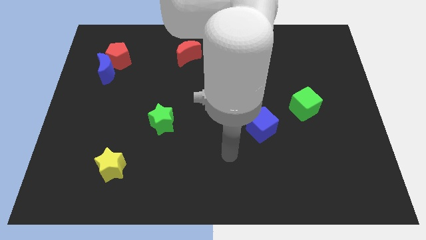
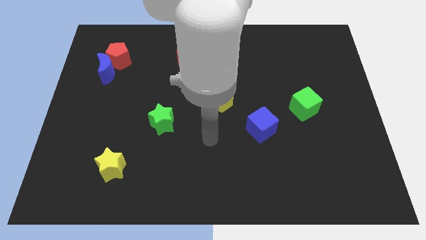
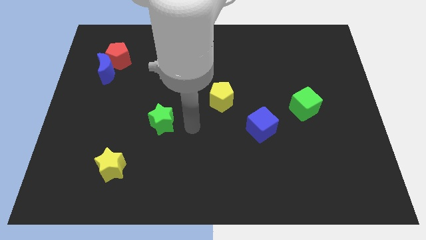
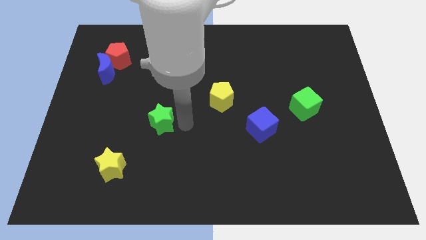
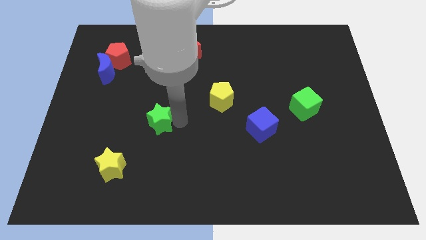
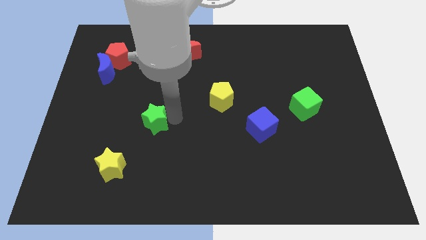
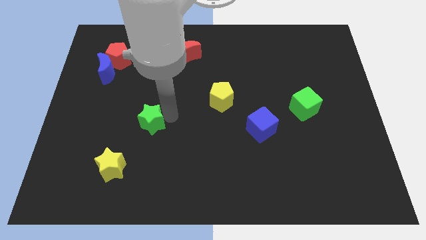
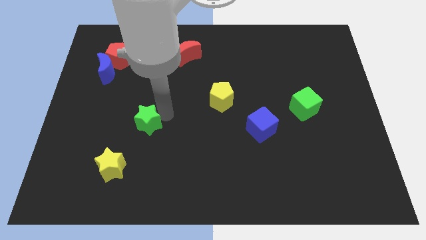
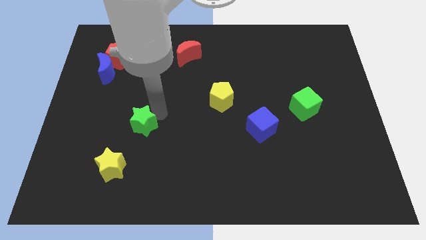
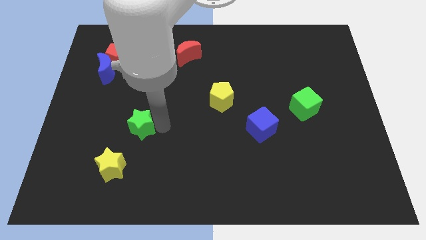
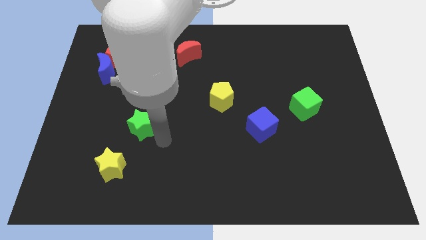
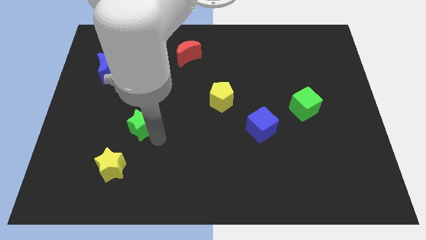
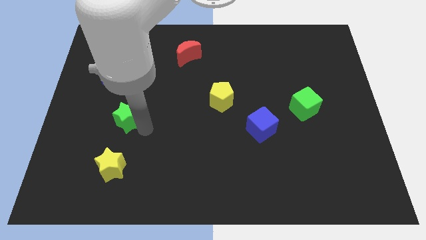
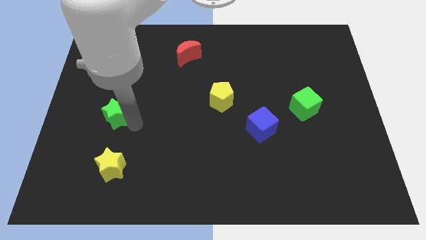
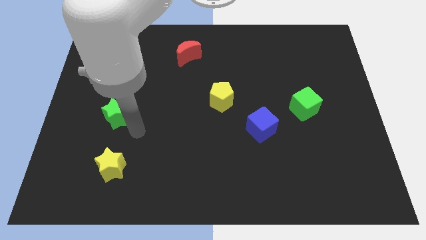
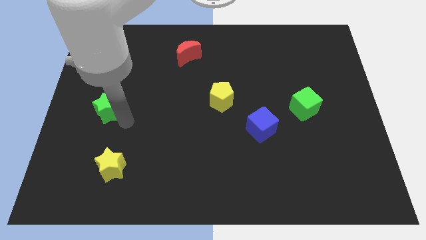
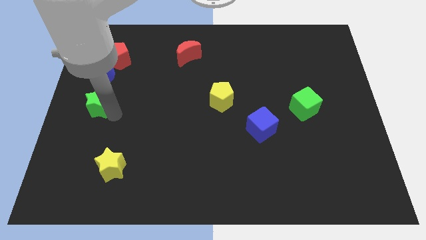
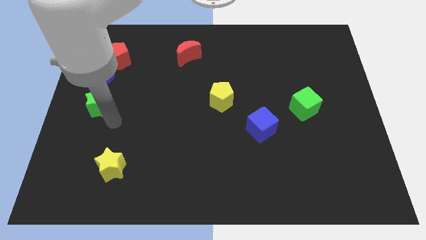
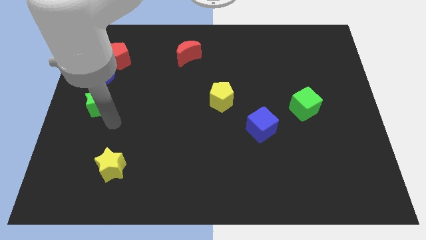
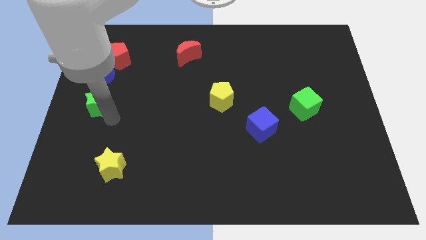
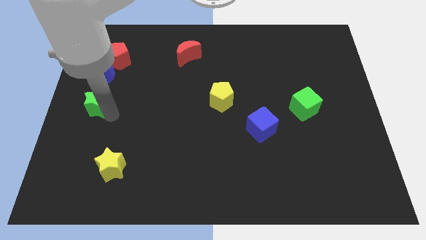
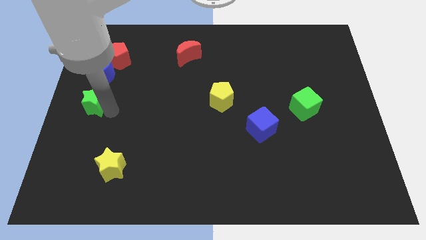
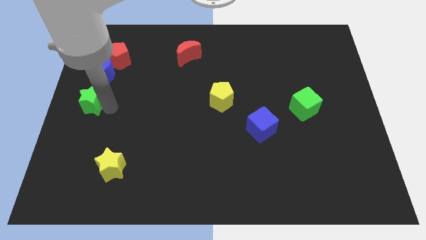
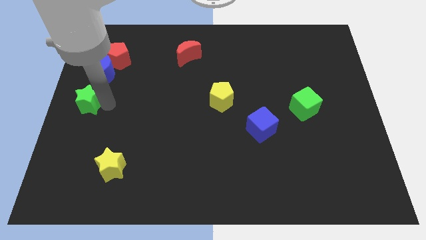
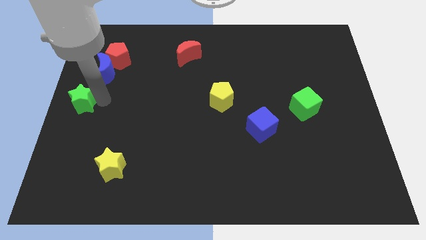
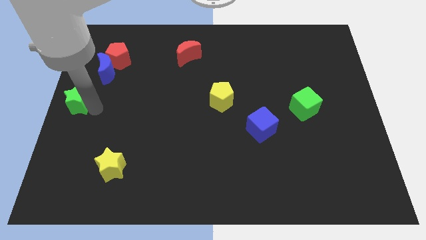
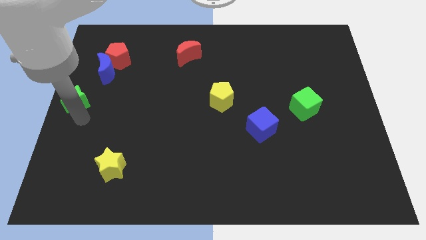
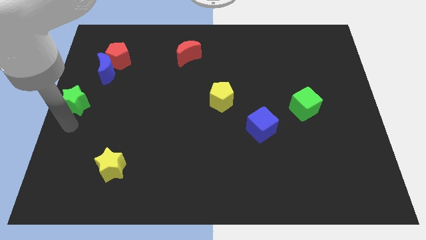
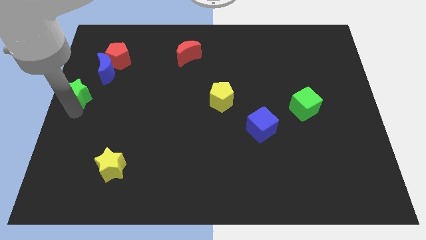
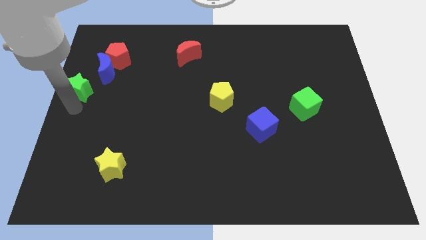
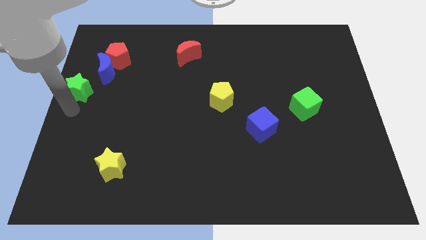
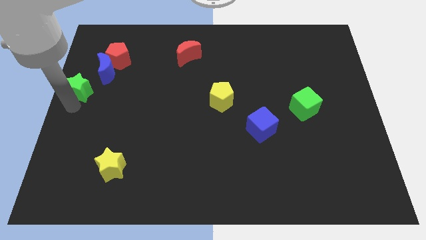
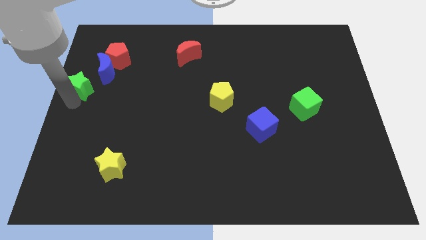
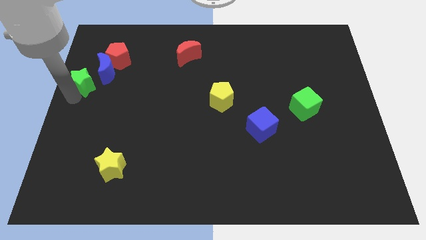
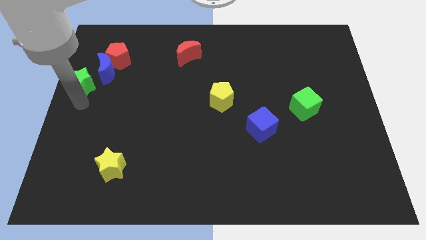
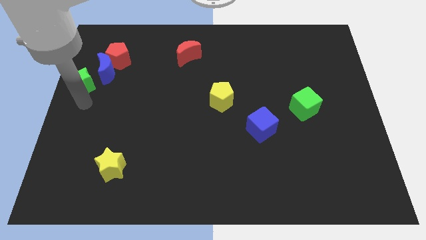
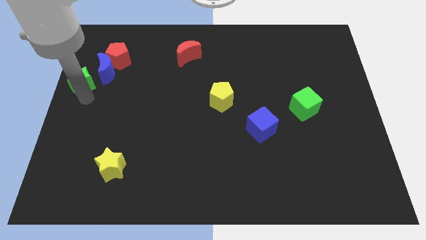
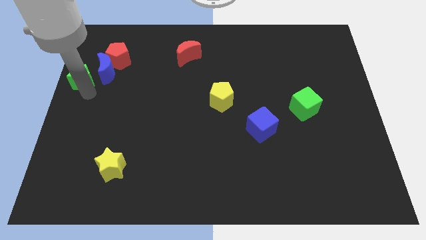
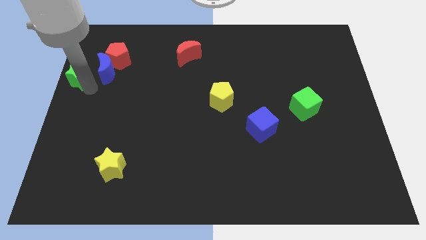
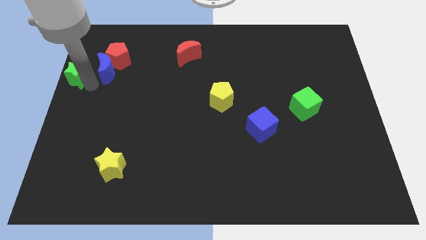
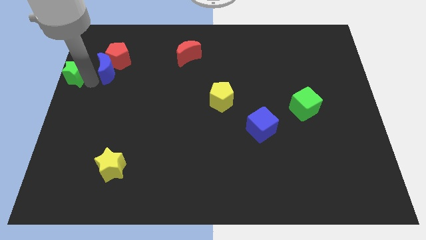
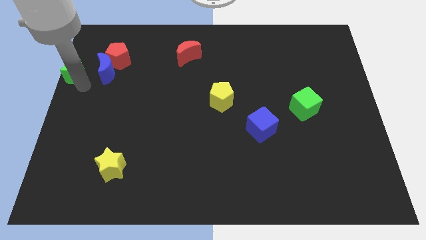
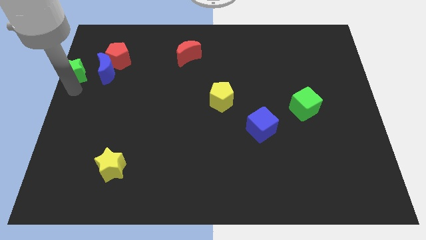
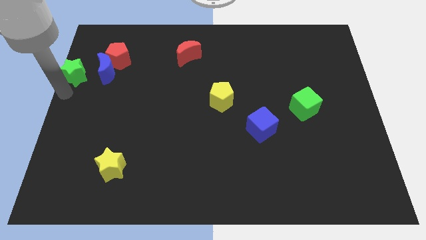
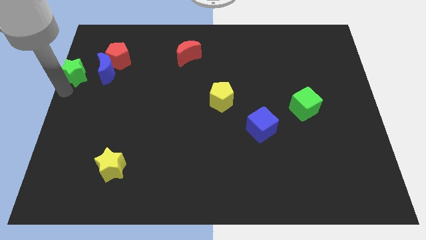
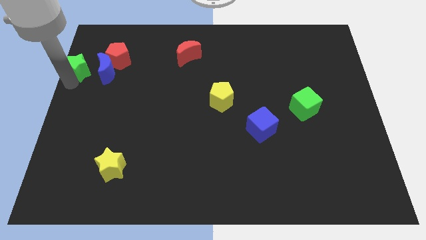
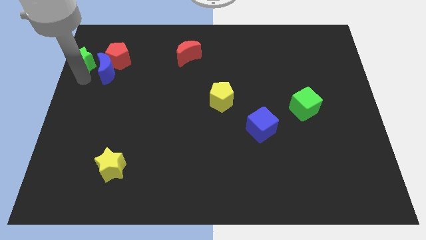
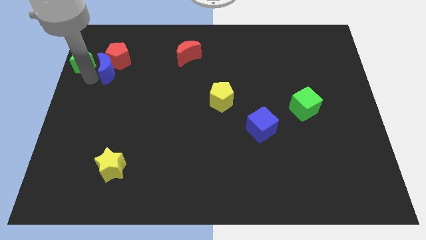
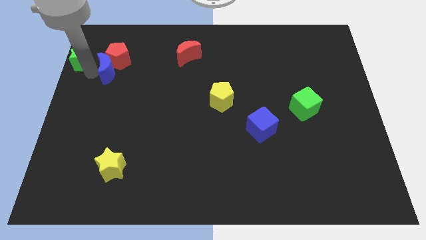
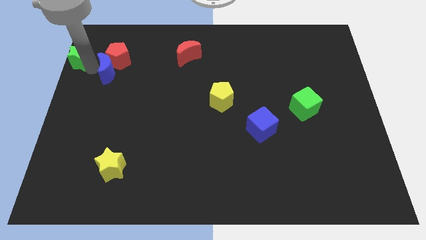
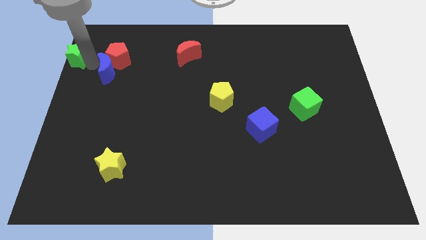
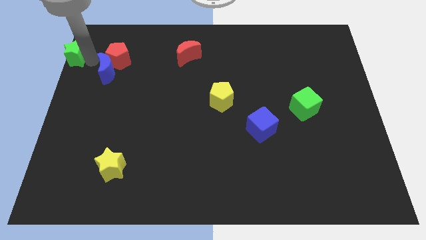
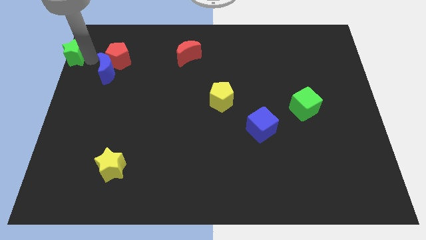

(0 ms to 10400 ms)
put the green star to the top left of the board
